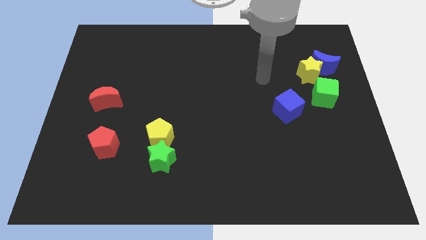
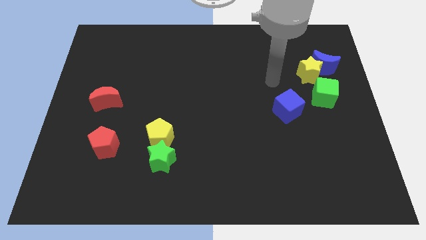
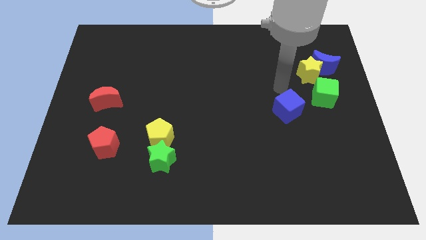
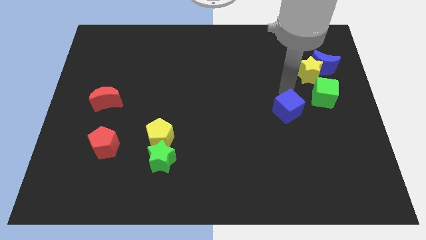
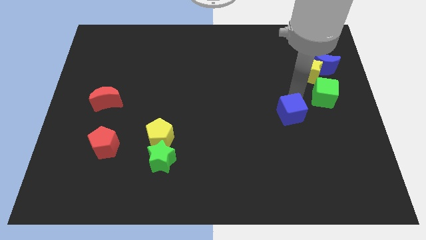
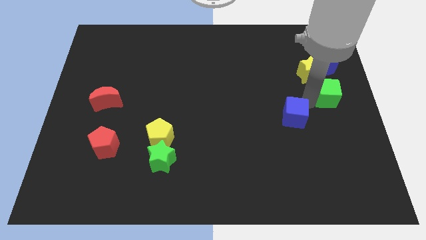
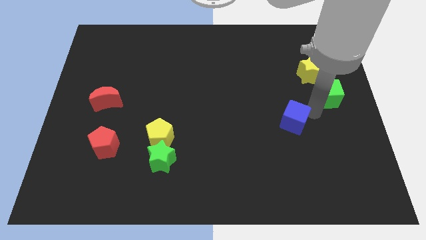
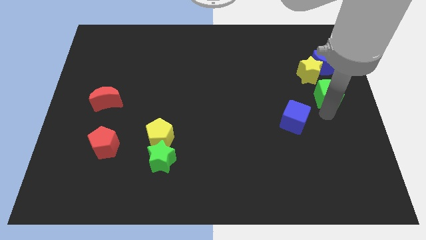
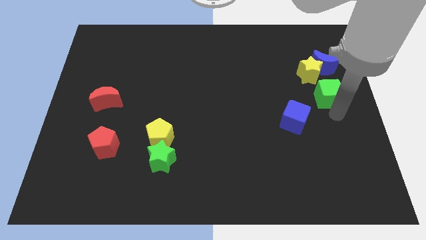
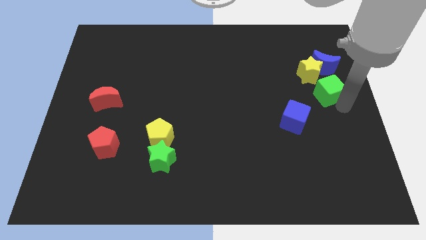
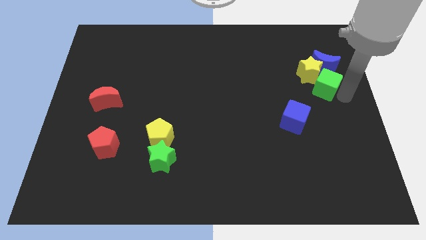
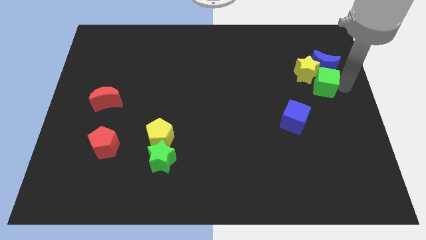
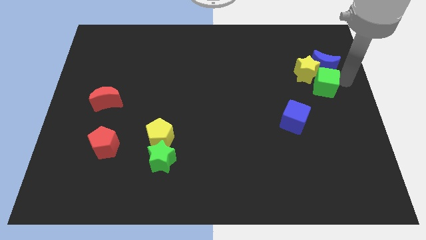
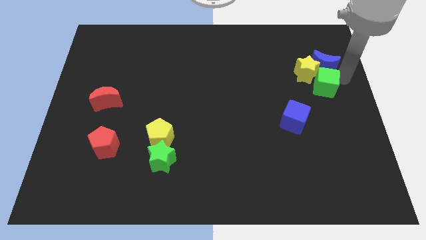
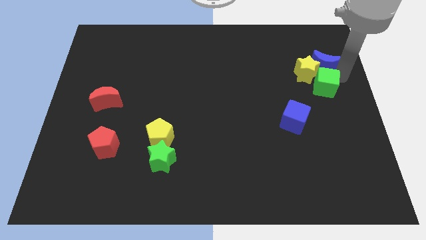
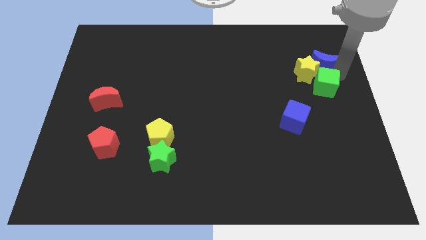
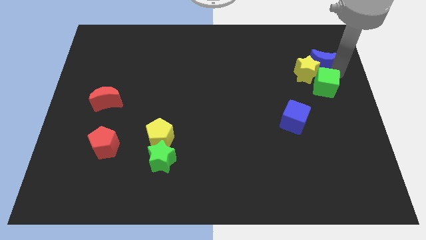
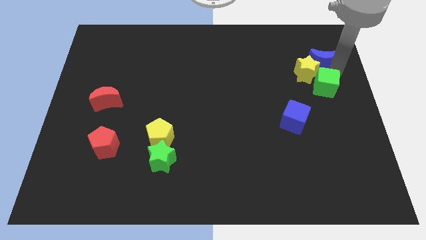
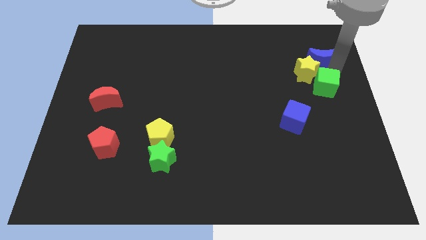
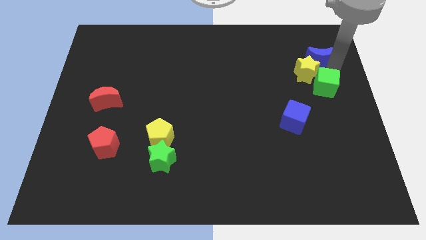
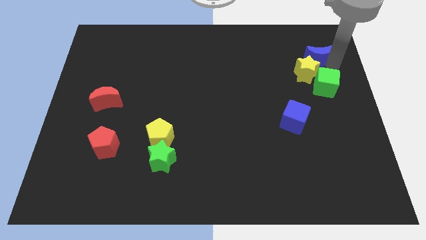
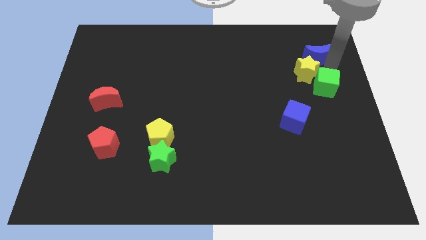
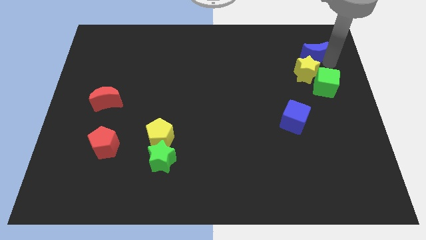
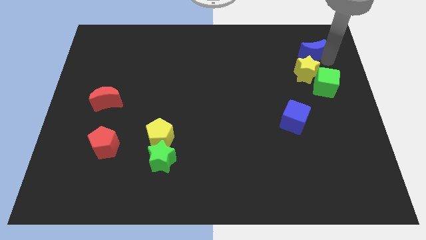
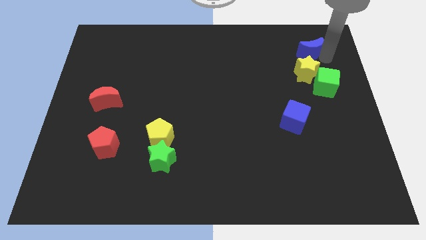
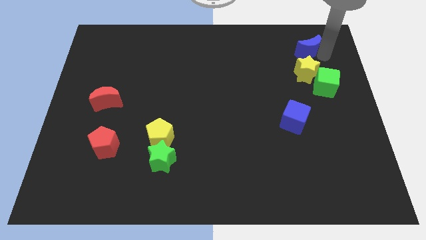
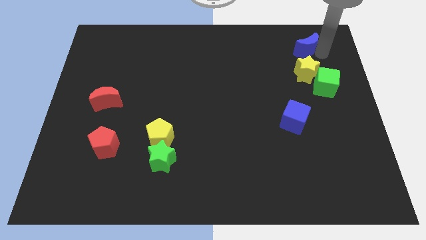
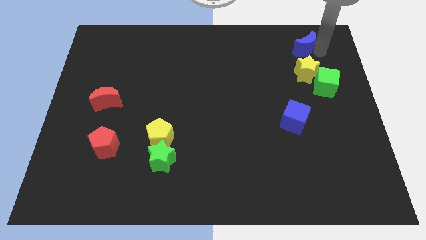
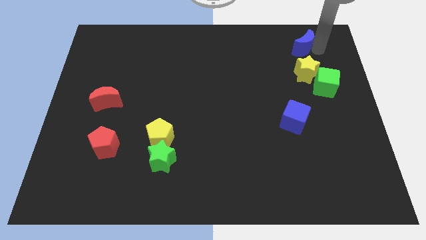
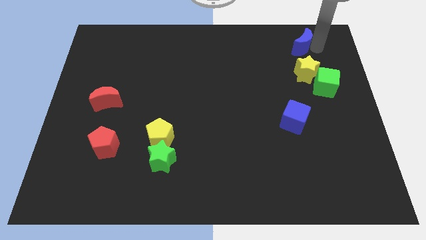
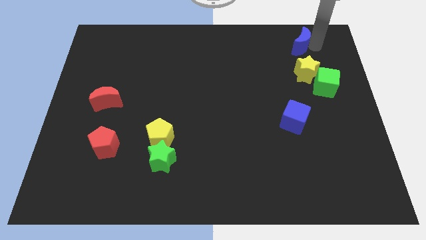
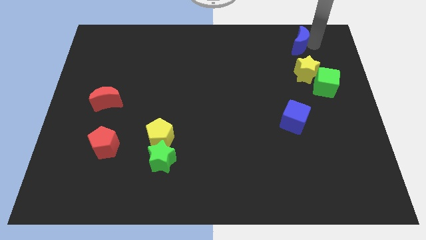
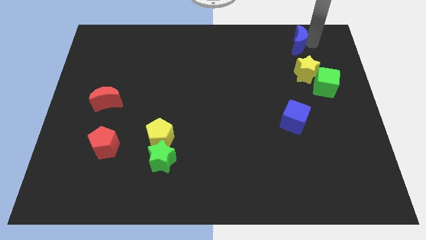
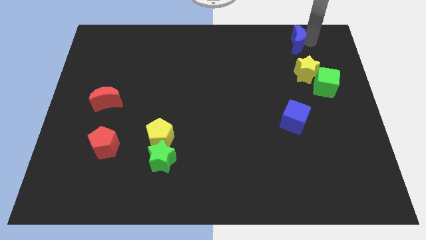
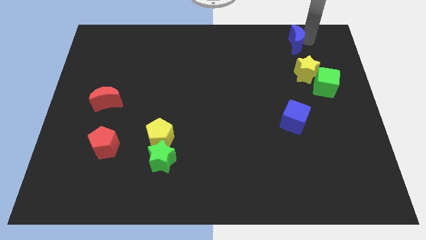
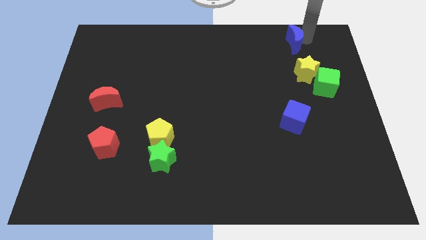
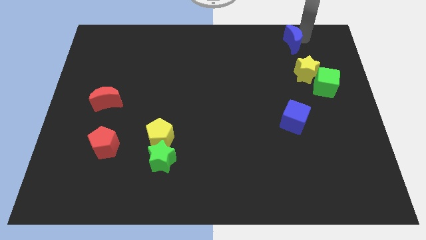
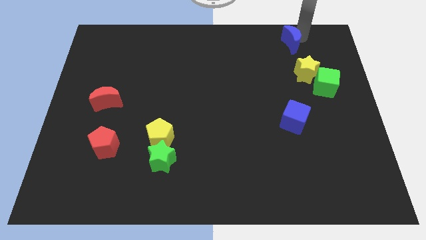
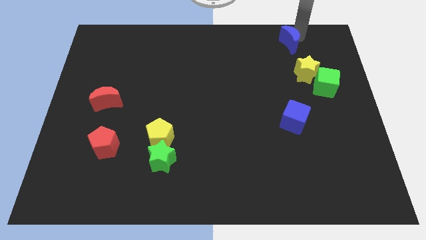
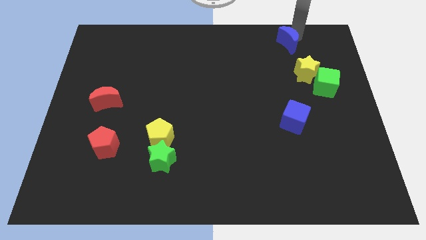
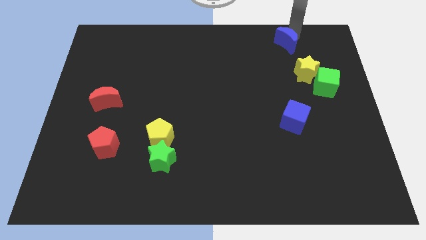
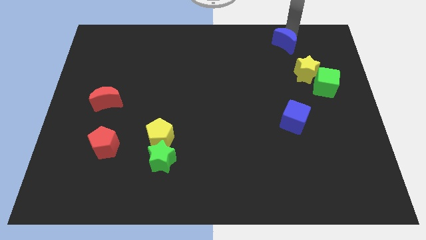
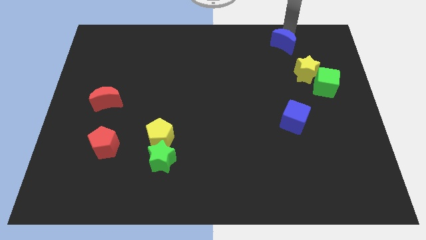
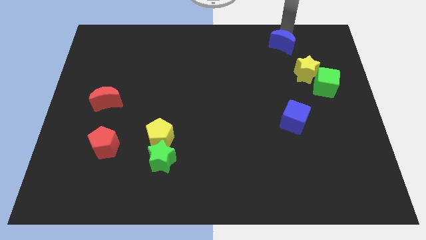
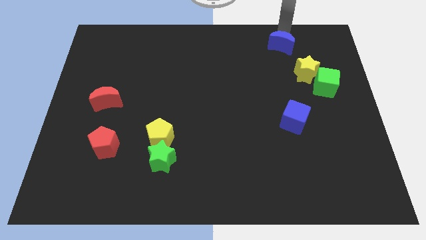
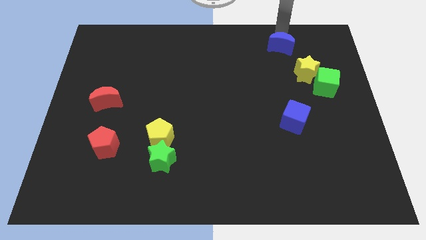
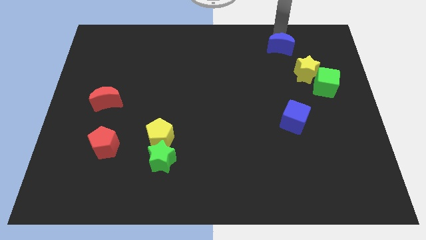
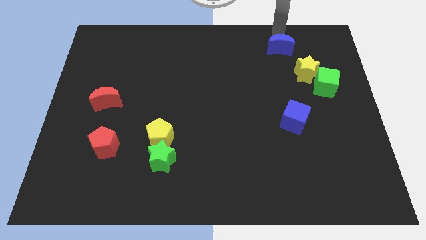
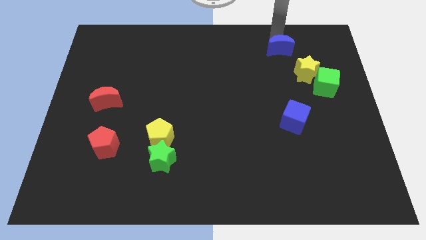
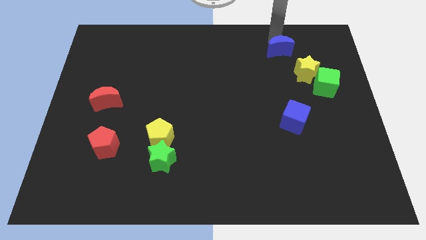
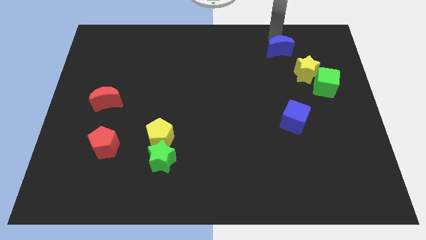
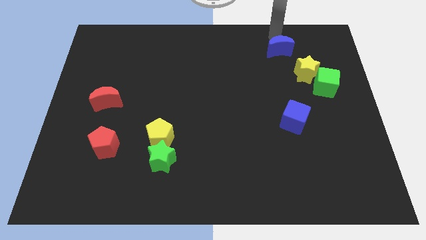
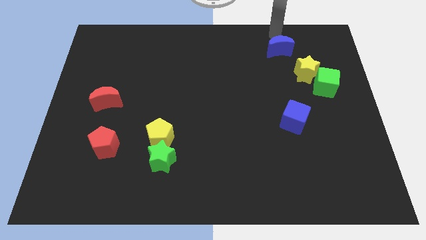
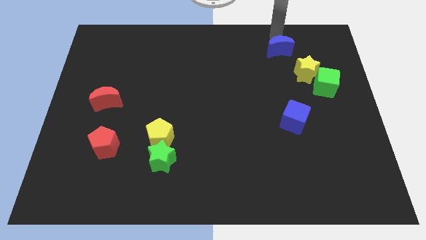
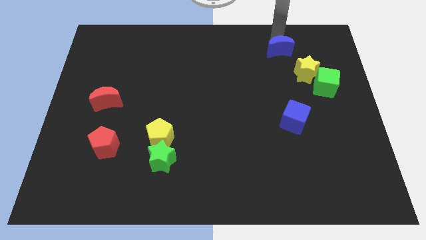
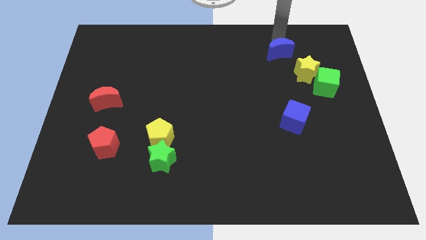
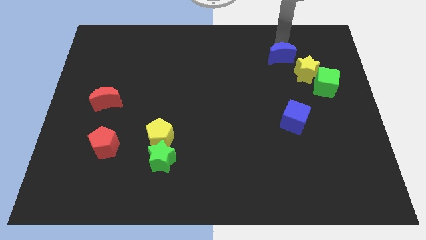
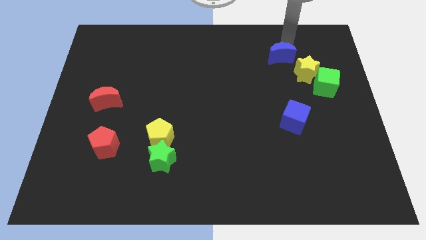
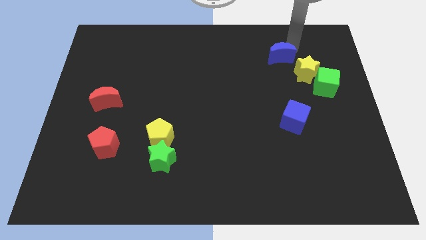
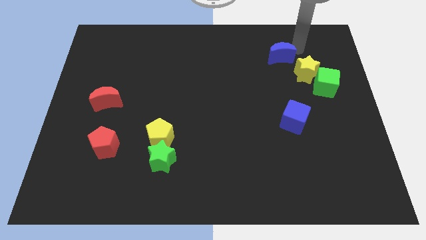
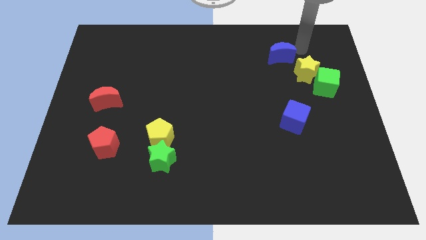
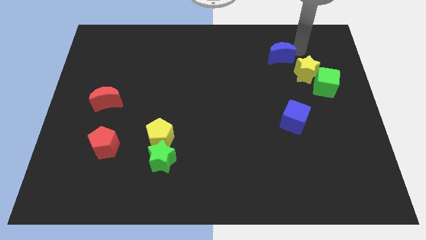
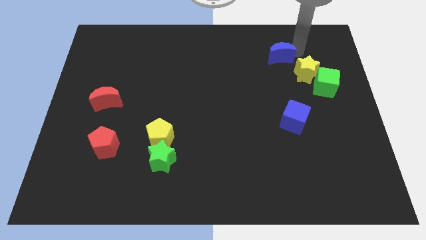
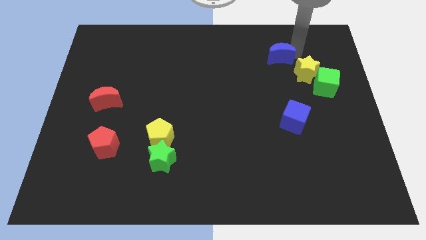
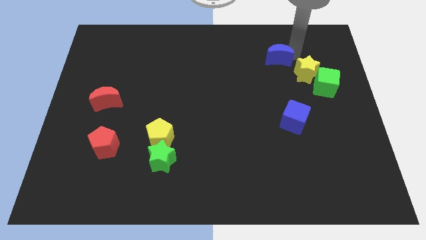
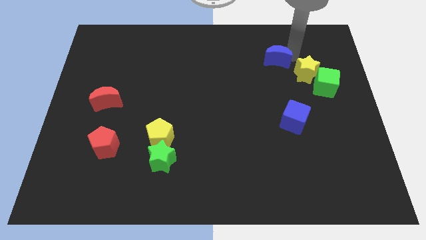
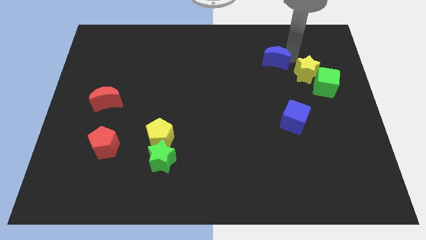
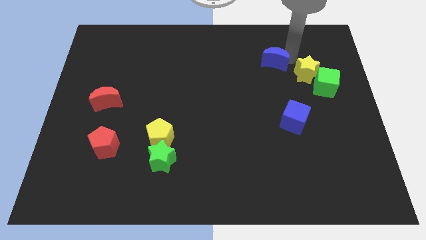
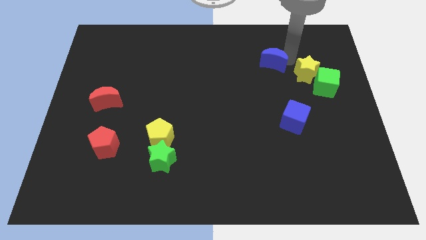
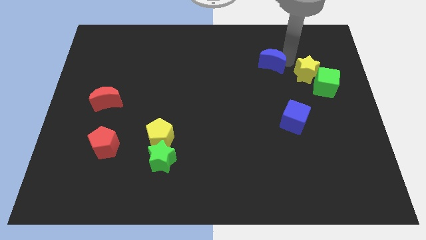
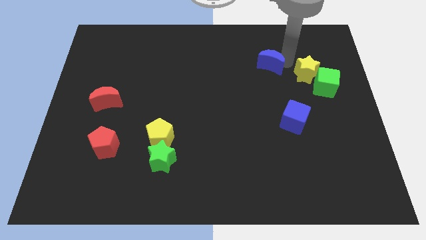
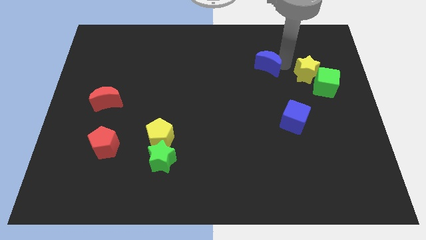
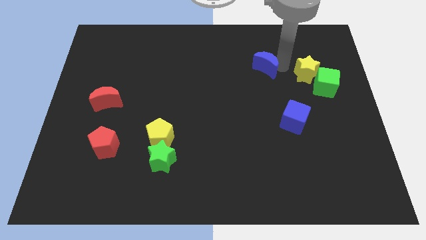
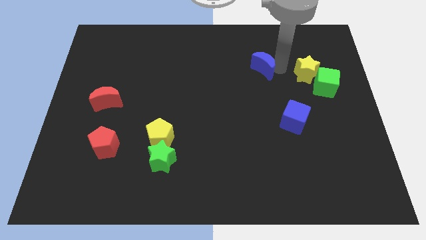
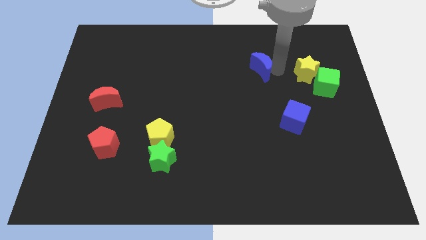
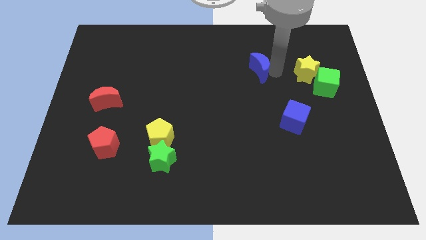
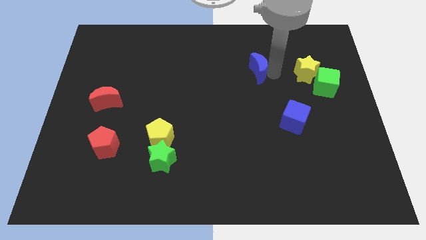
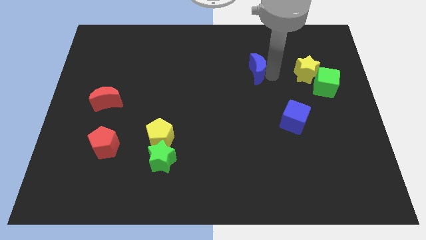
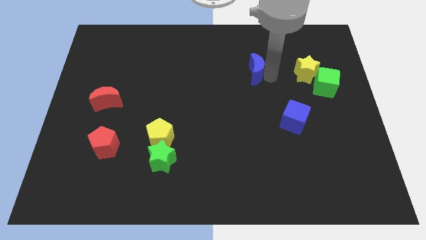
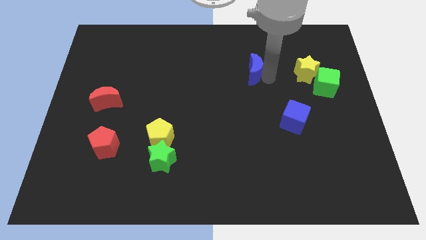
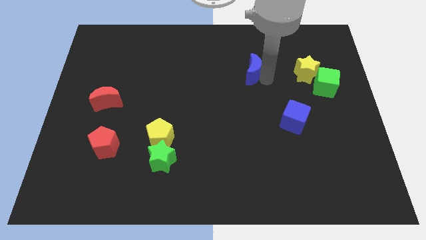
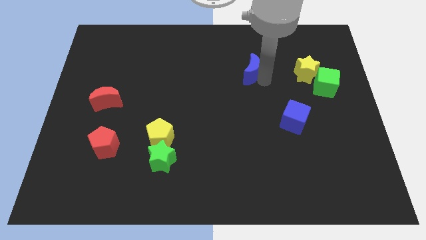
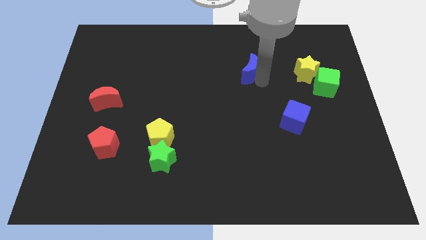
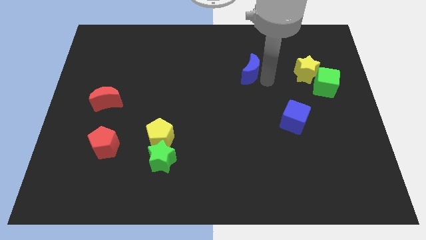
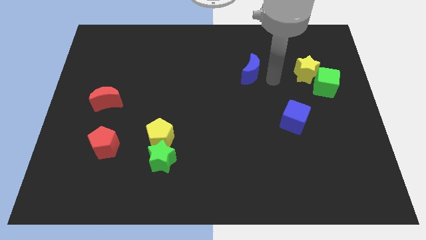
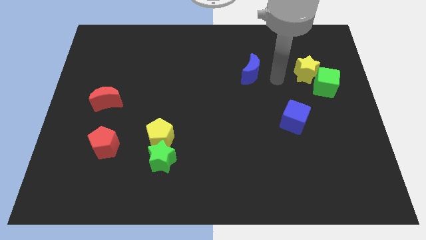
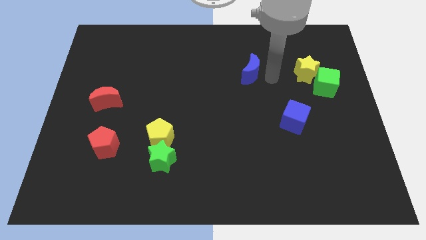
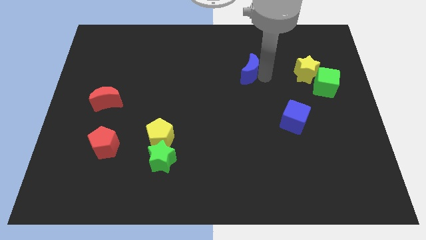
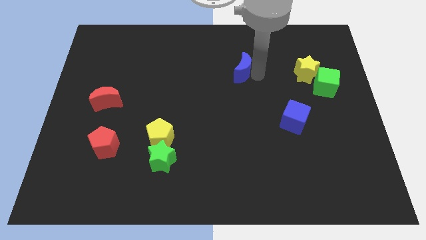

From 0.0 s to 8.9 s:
move the blue moon left
